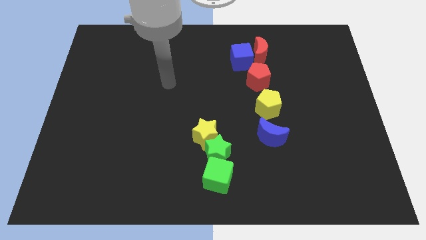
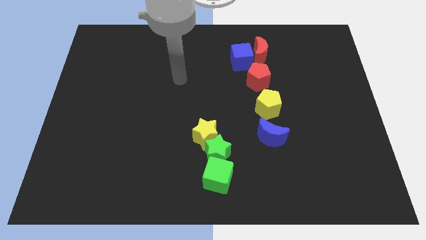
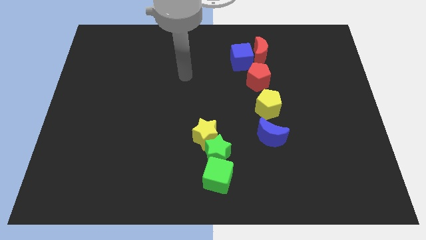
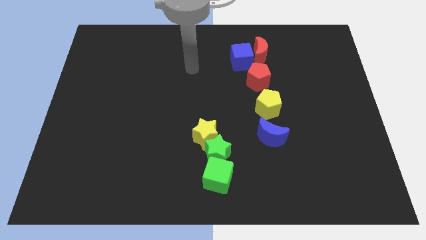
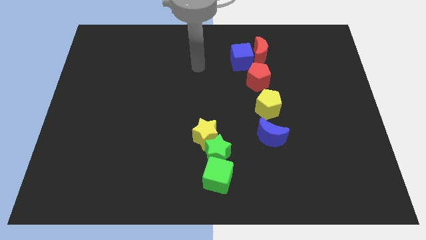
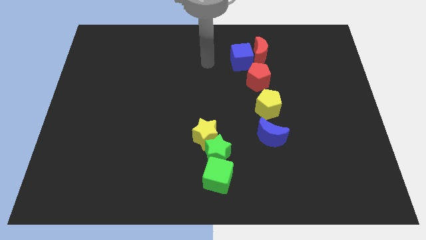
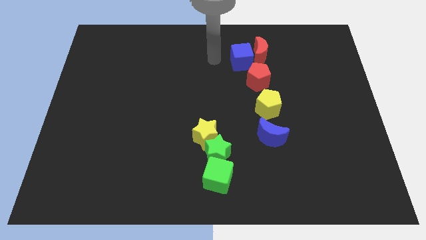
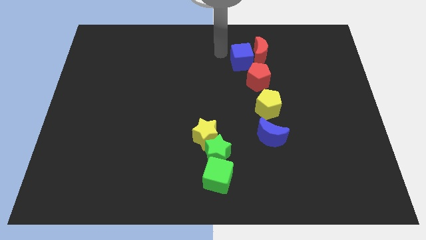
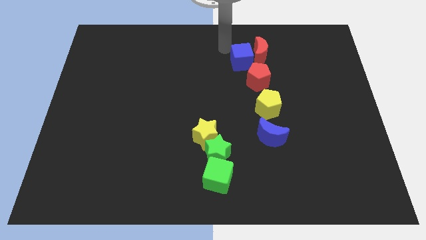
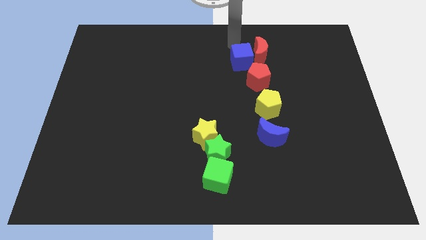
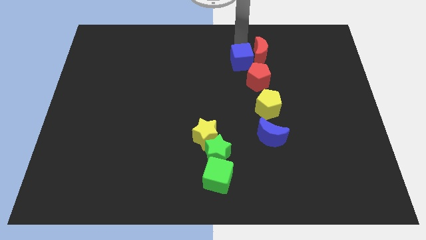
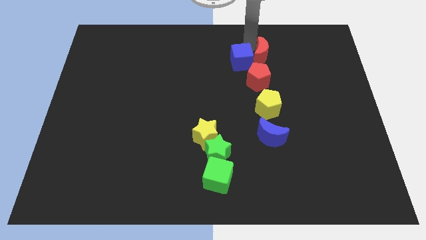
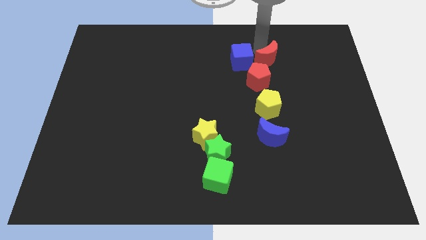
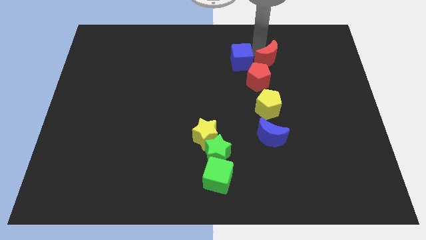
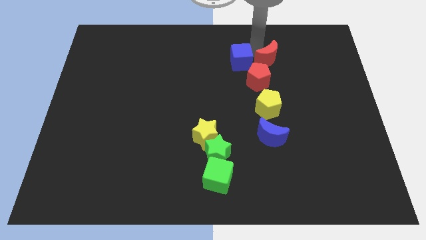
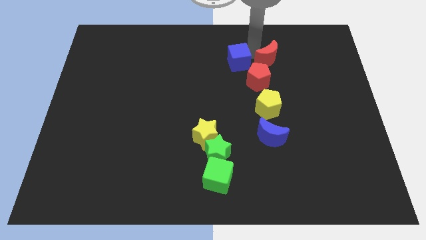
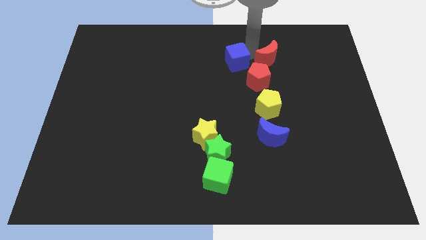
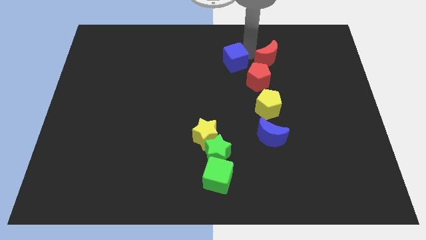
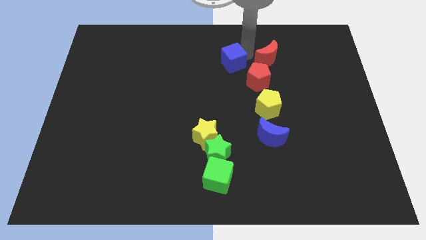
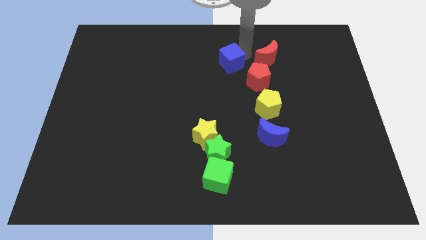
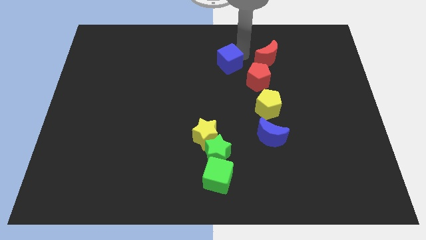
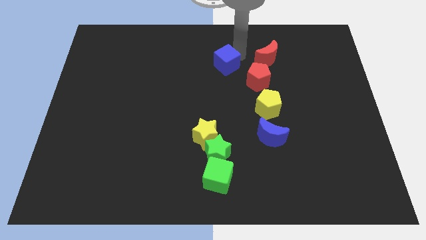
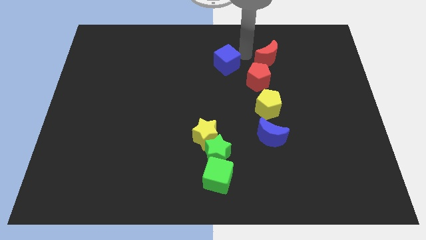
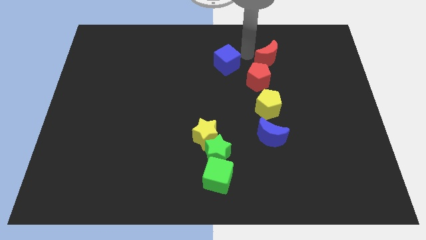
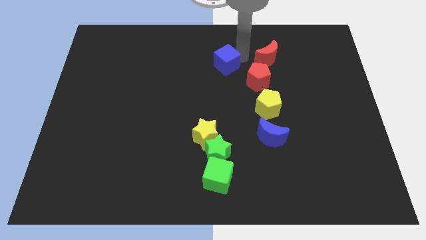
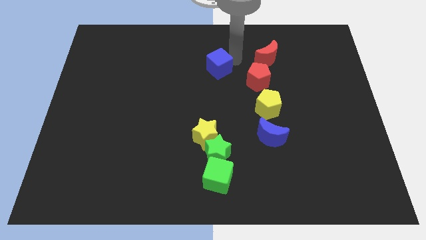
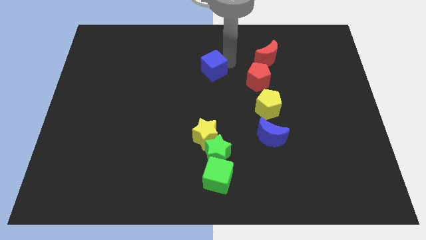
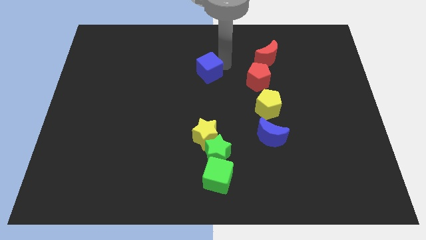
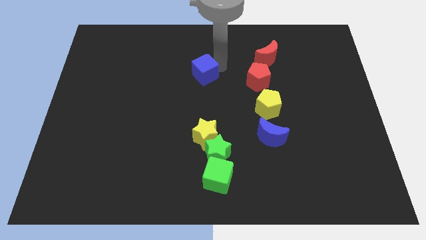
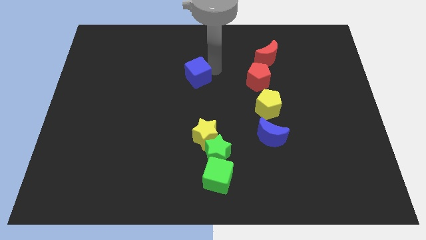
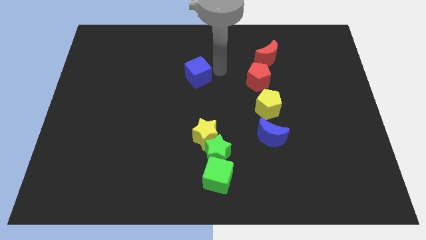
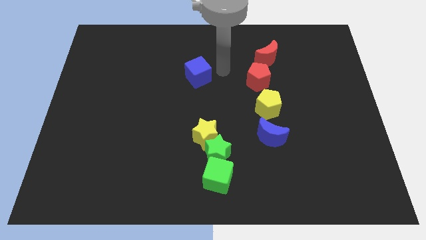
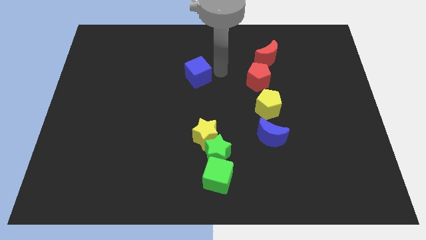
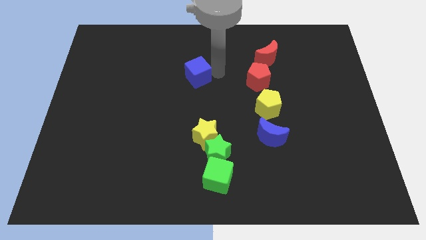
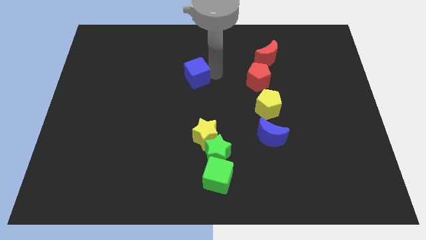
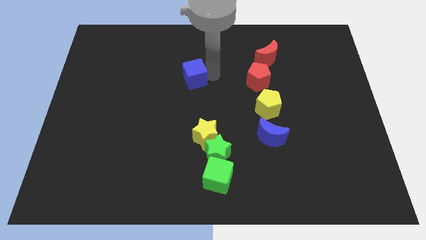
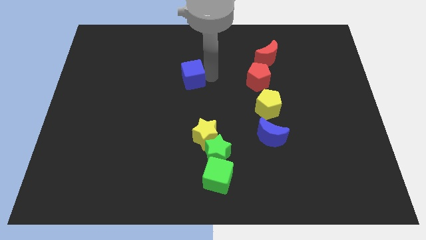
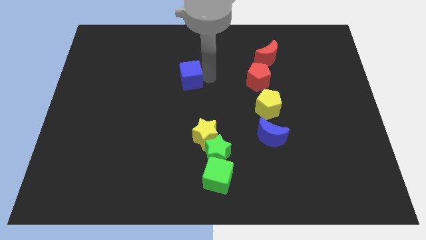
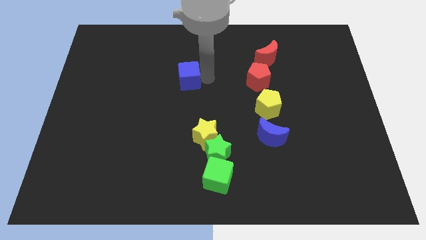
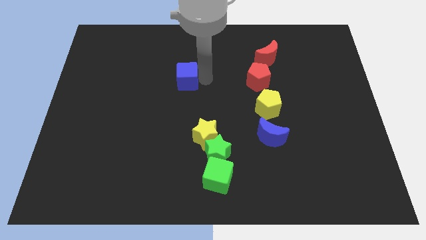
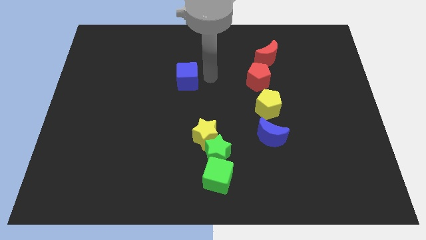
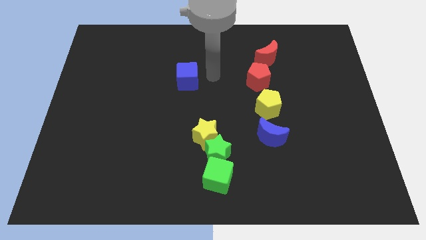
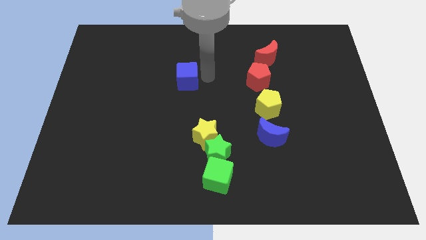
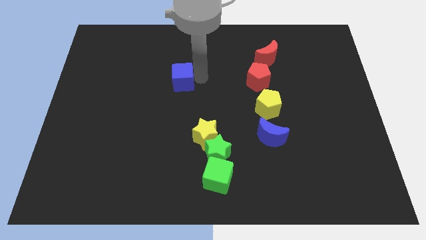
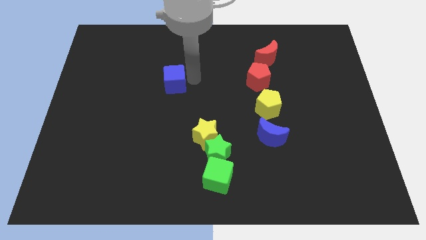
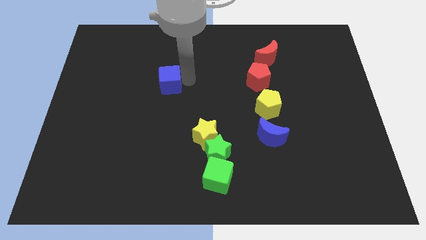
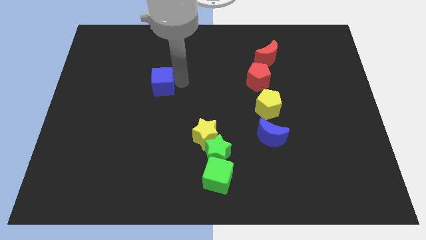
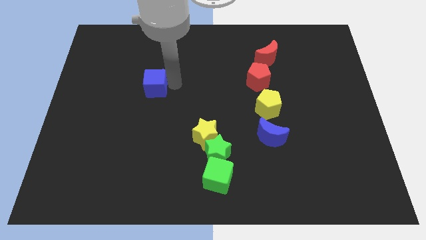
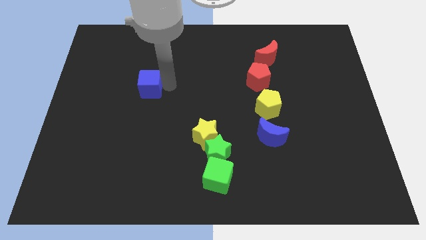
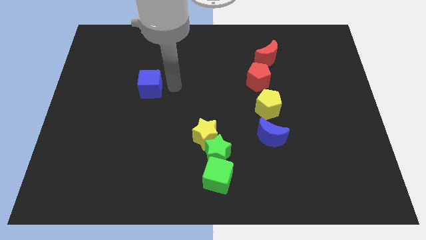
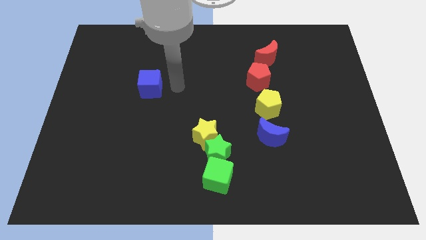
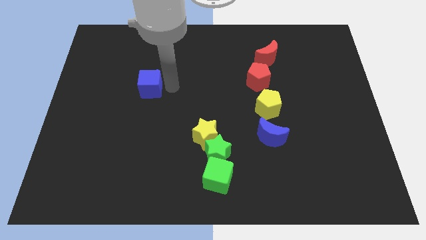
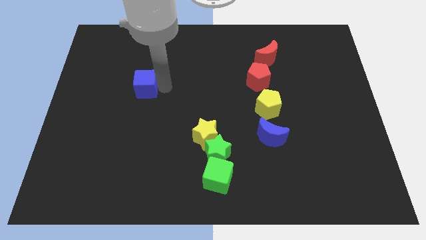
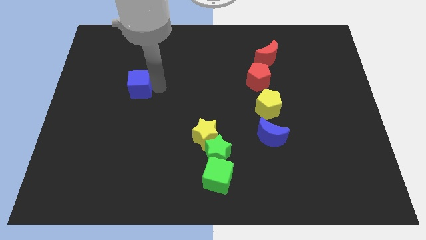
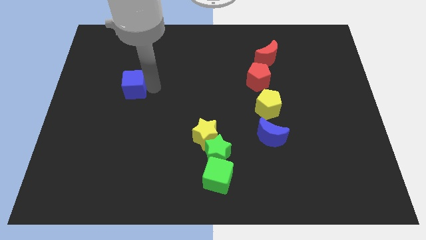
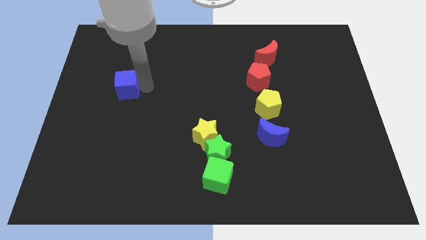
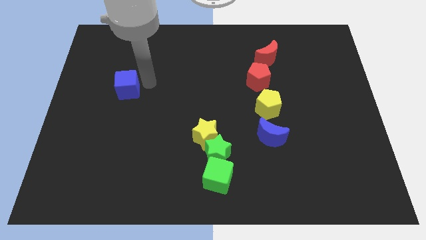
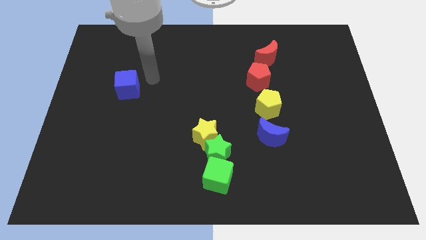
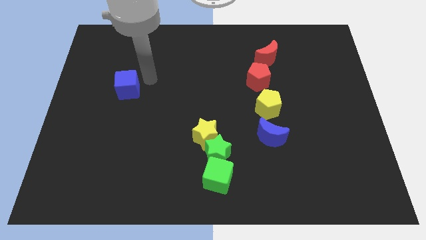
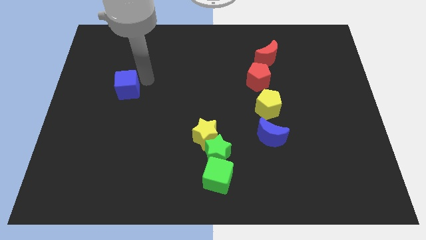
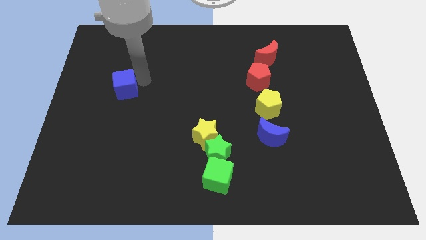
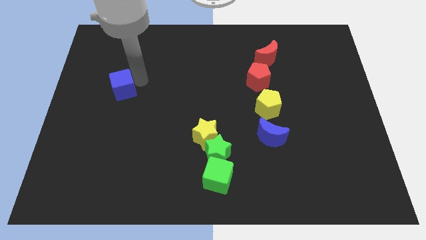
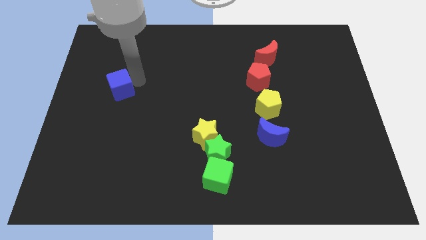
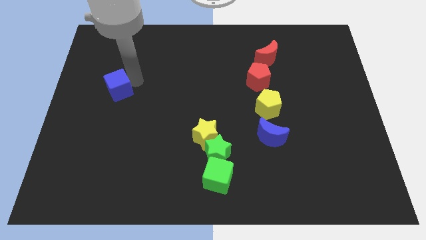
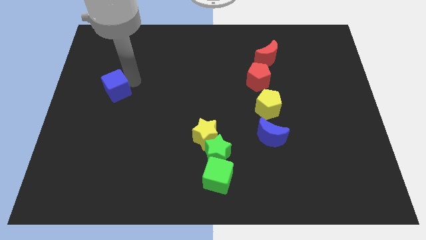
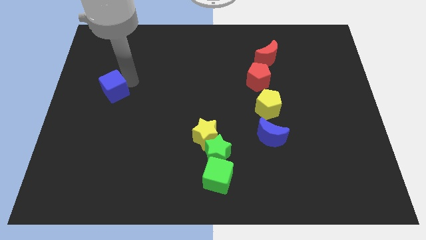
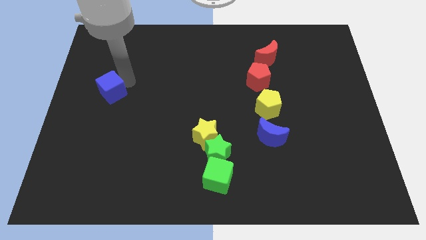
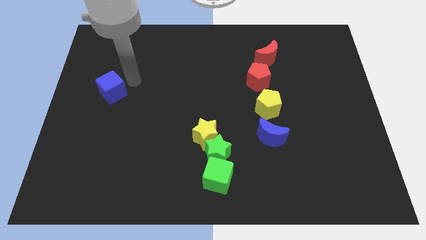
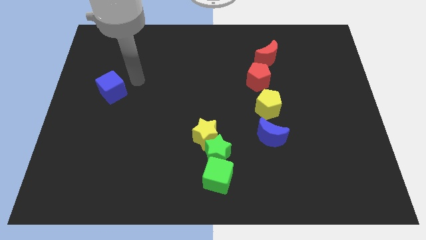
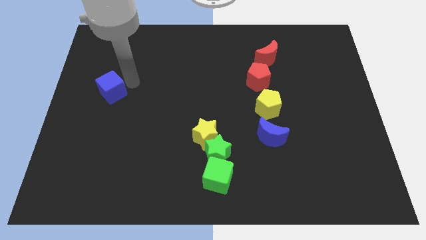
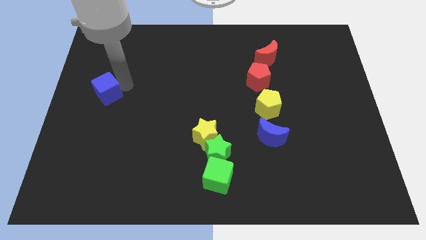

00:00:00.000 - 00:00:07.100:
slide the blue cube to the center left

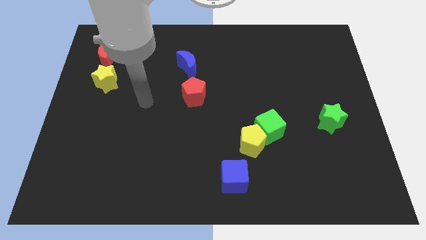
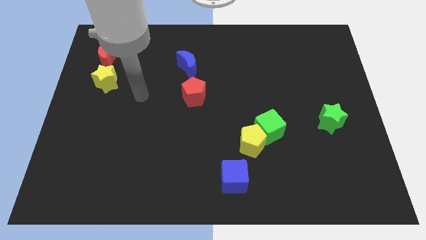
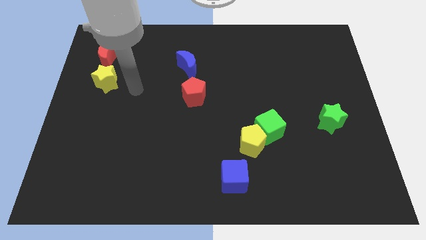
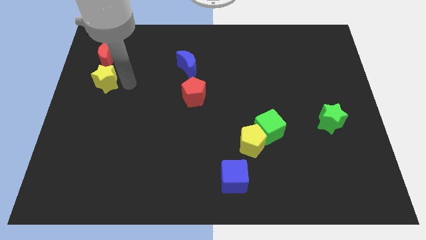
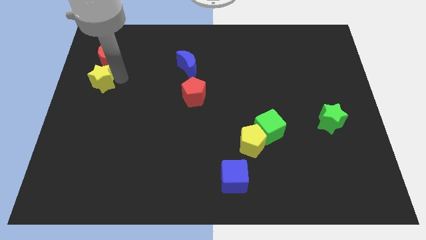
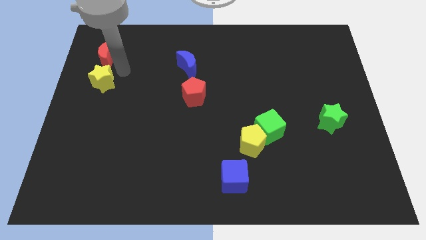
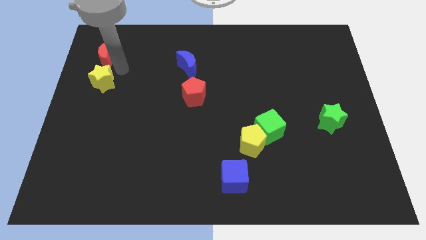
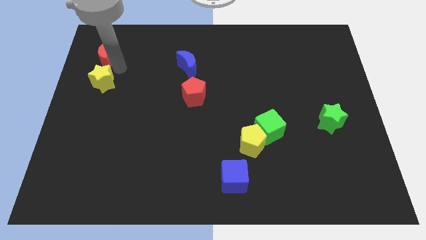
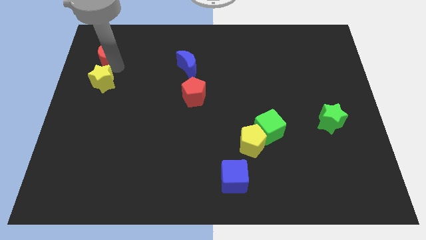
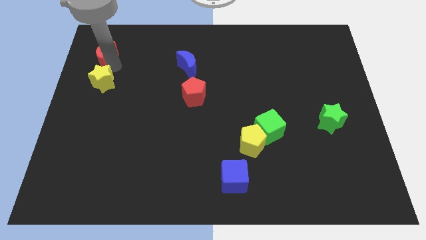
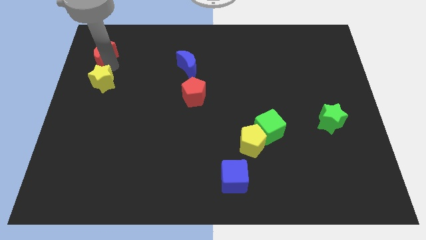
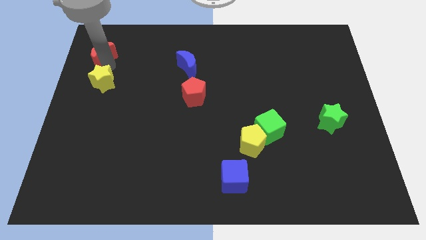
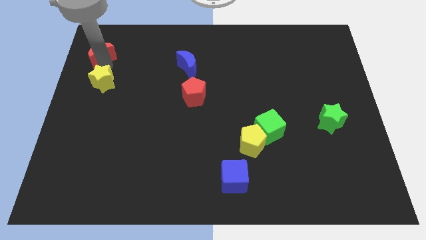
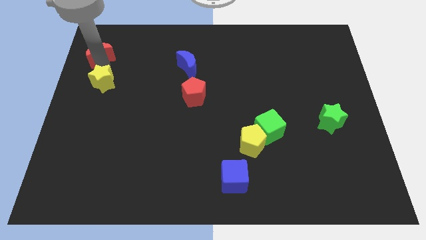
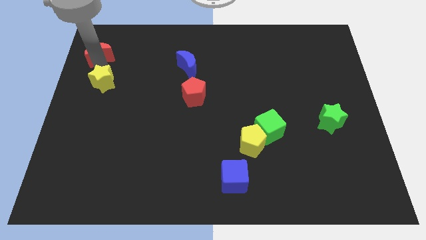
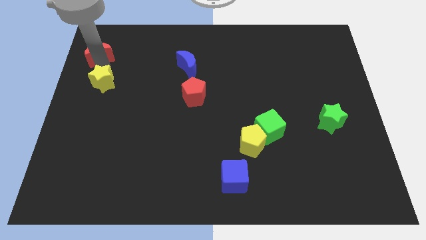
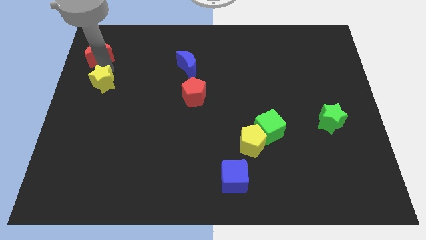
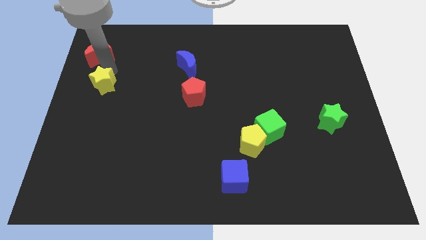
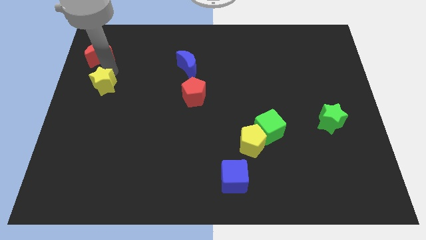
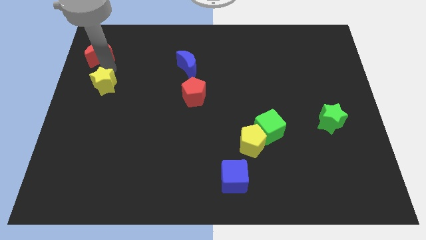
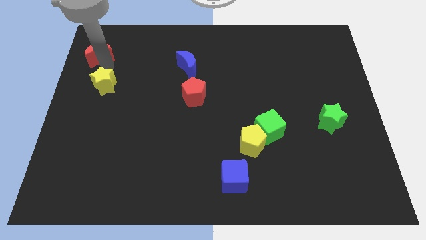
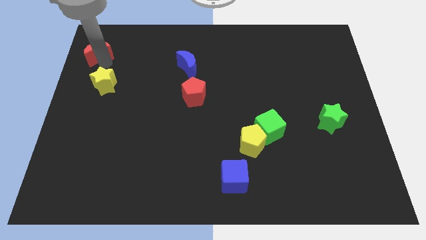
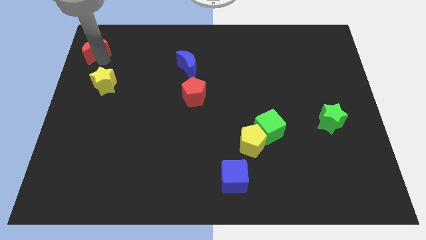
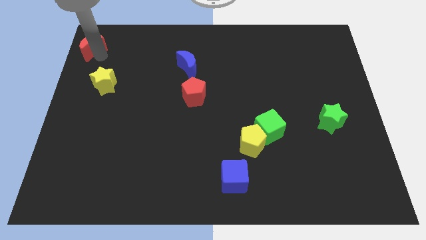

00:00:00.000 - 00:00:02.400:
slide the red moon to the top left
